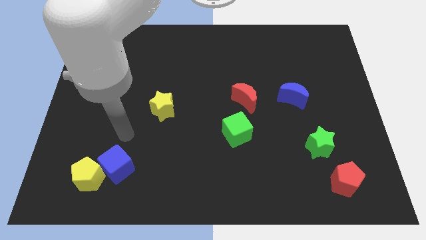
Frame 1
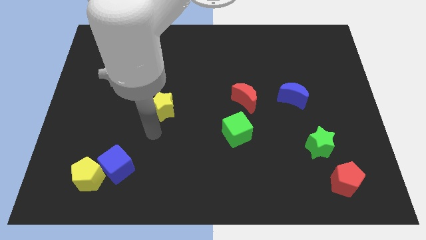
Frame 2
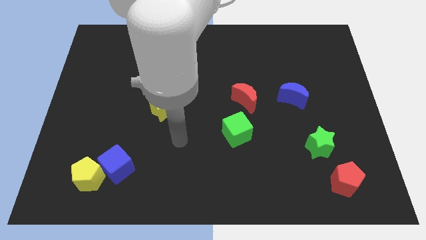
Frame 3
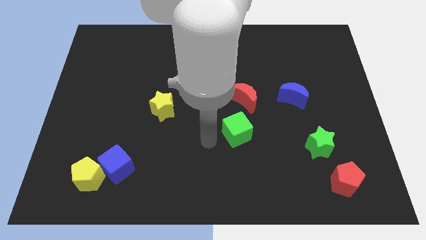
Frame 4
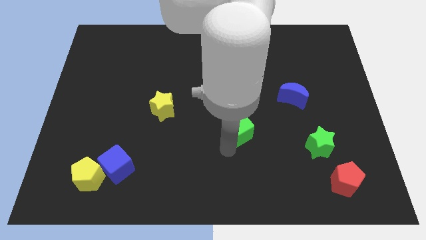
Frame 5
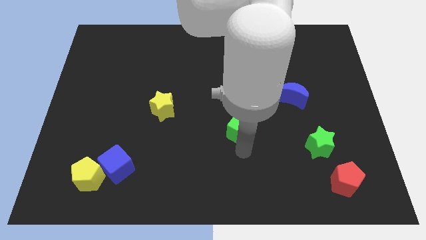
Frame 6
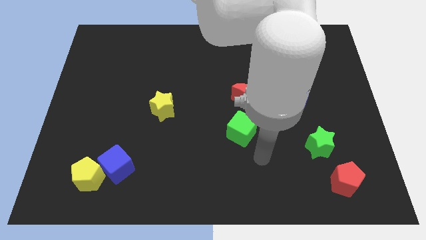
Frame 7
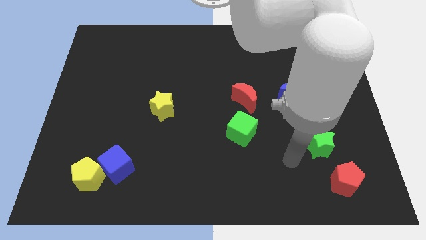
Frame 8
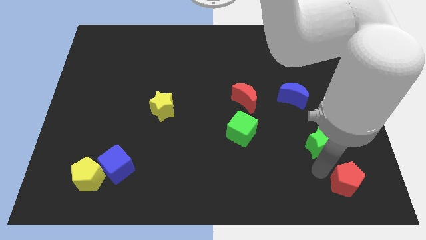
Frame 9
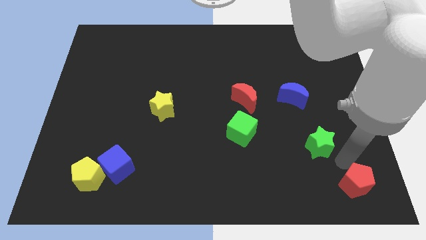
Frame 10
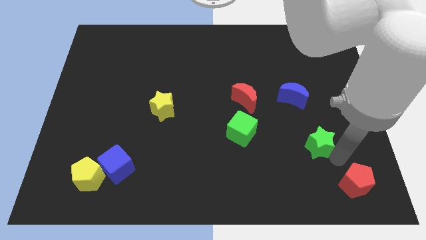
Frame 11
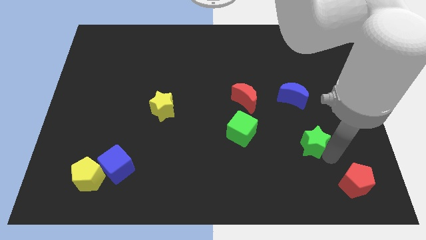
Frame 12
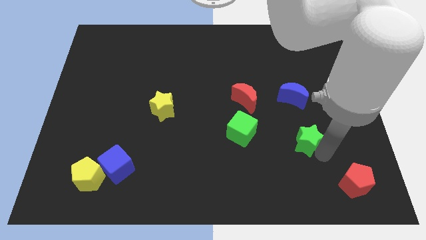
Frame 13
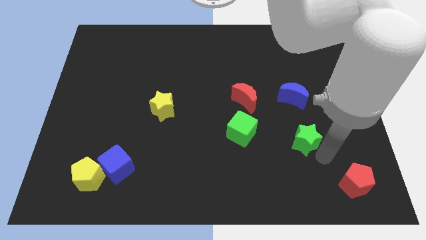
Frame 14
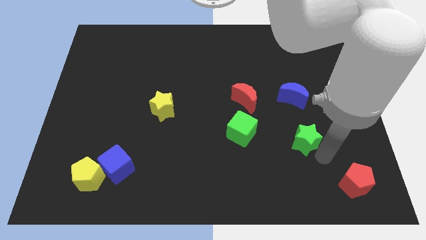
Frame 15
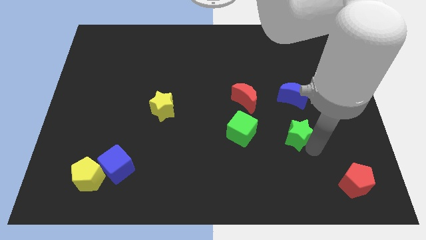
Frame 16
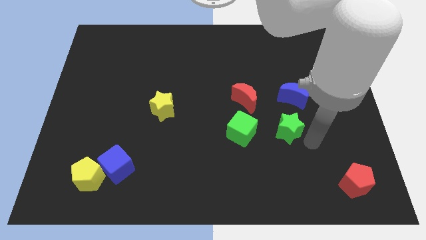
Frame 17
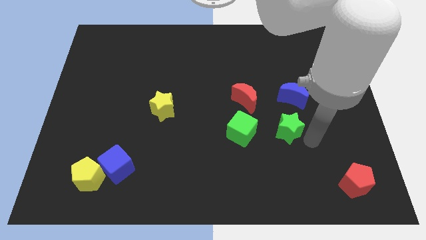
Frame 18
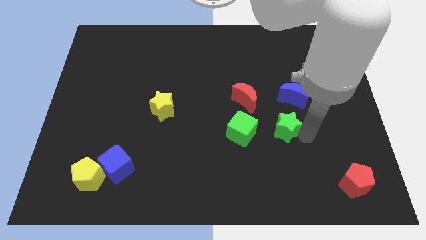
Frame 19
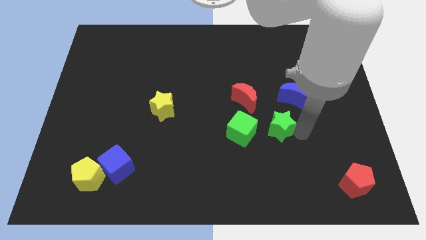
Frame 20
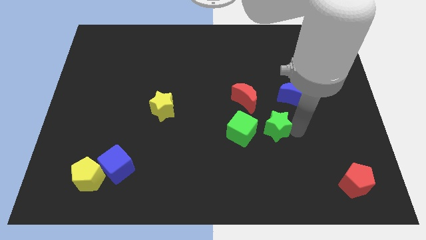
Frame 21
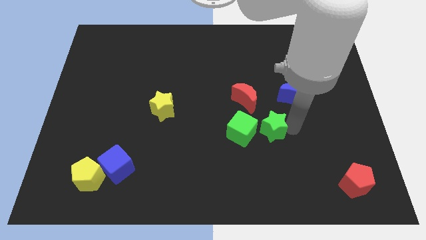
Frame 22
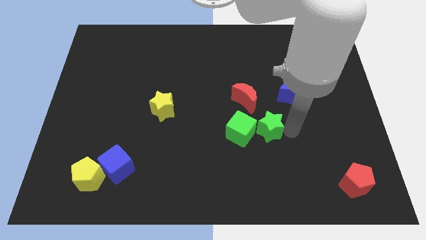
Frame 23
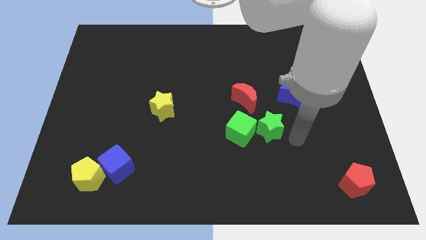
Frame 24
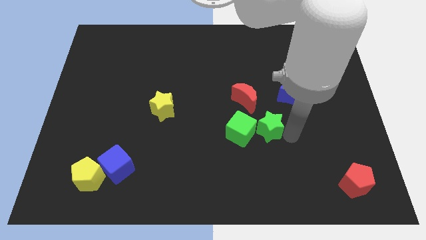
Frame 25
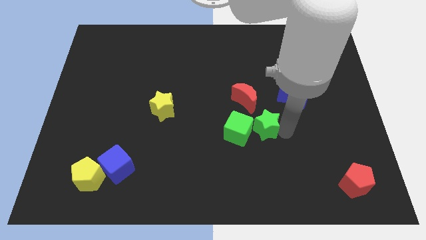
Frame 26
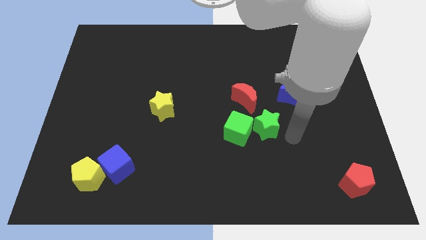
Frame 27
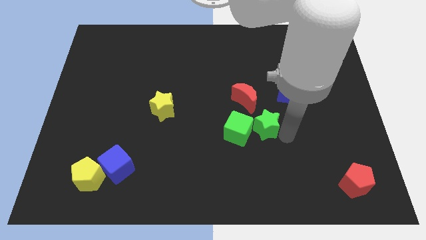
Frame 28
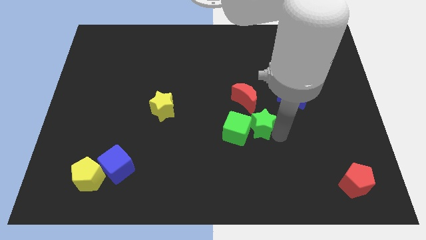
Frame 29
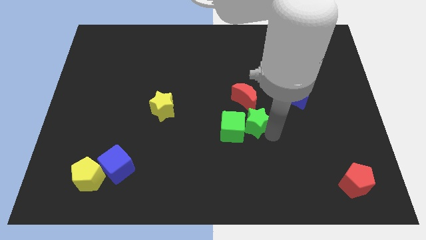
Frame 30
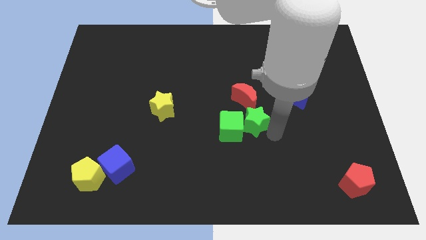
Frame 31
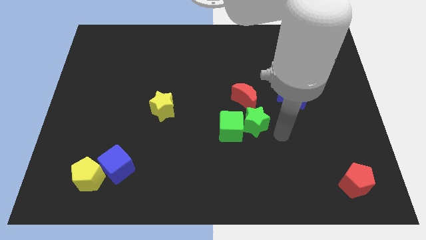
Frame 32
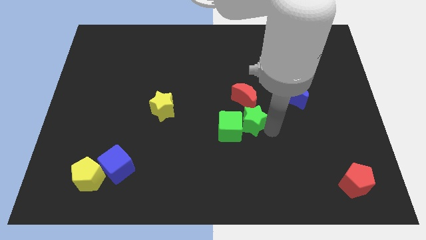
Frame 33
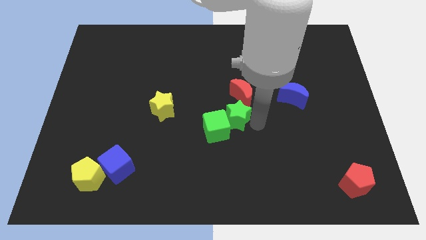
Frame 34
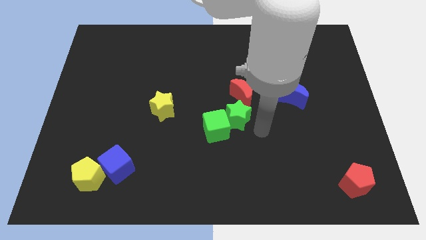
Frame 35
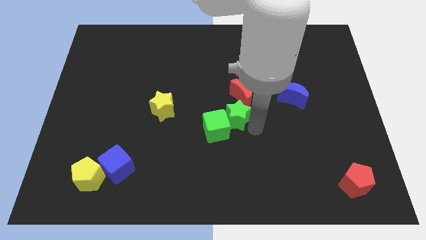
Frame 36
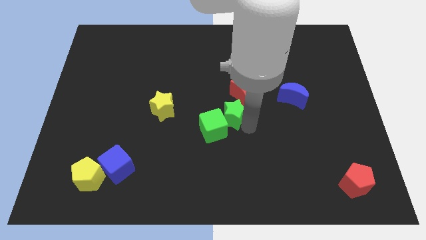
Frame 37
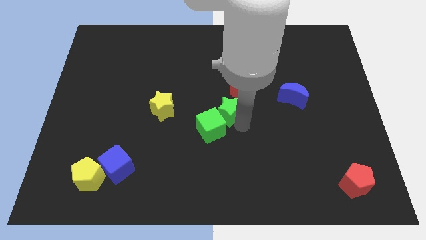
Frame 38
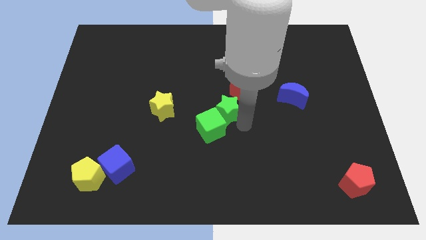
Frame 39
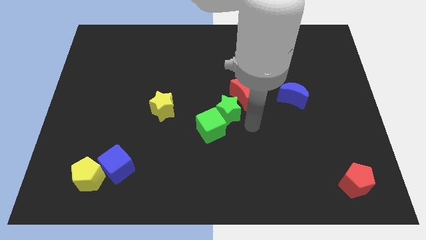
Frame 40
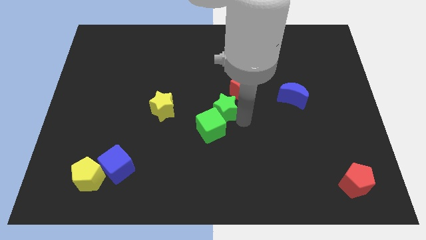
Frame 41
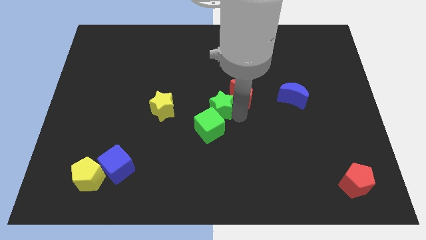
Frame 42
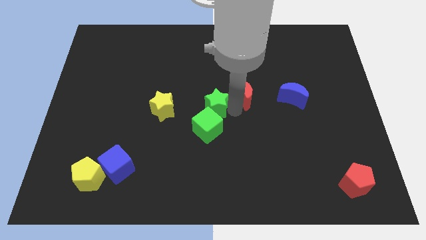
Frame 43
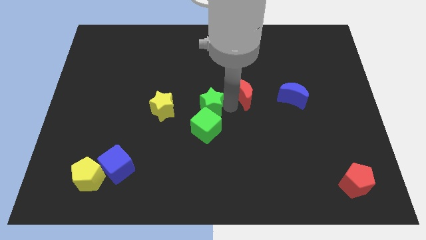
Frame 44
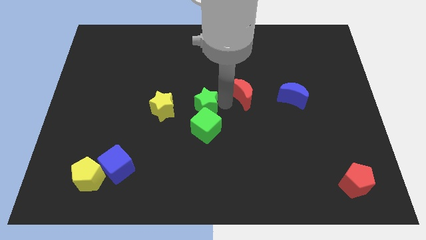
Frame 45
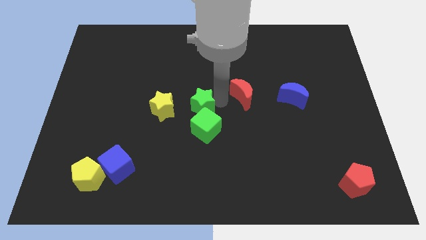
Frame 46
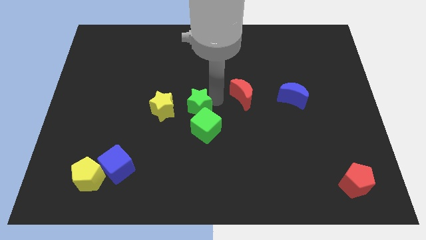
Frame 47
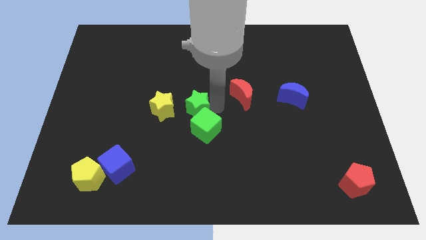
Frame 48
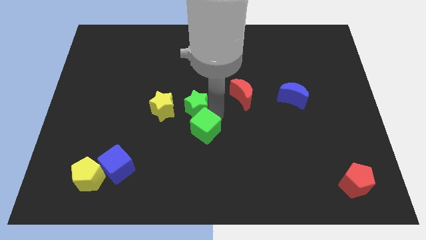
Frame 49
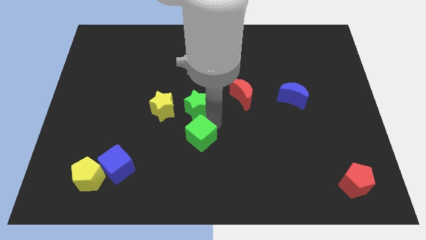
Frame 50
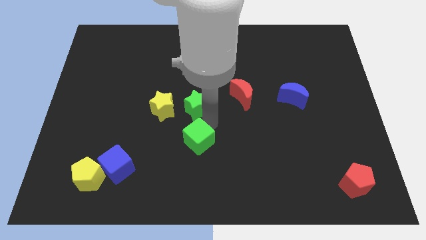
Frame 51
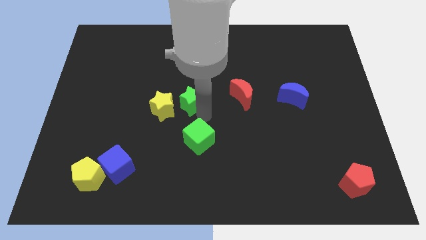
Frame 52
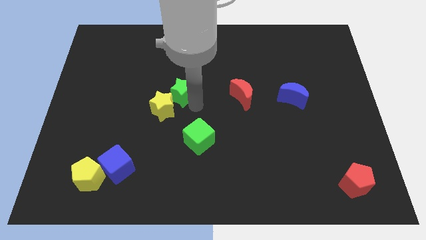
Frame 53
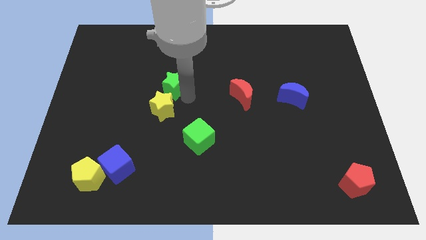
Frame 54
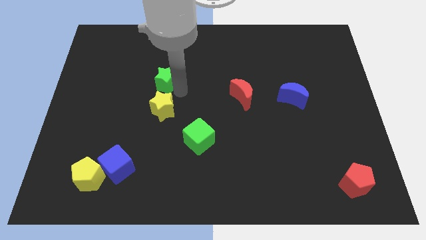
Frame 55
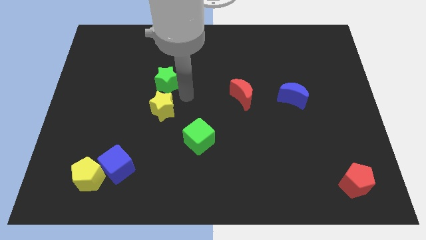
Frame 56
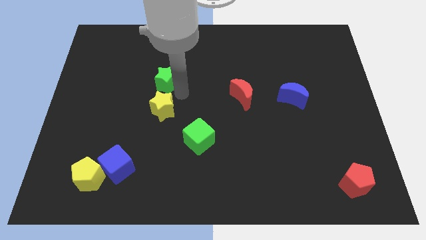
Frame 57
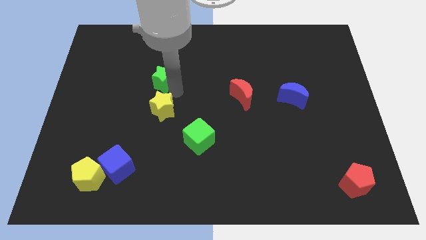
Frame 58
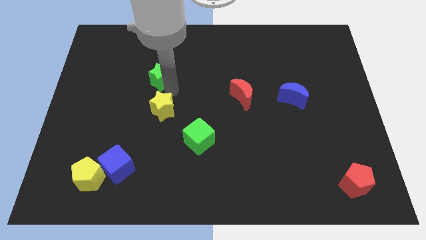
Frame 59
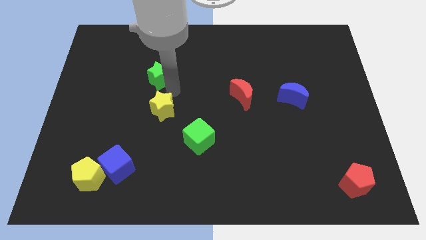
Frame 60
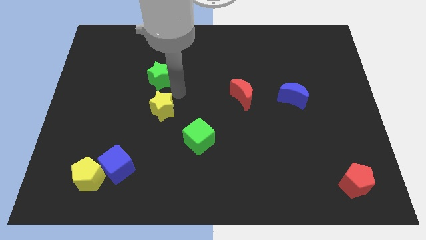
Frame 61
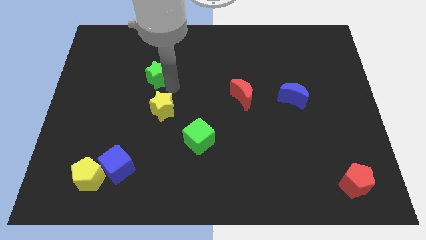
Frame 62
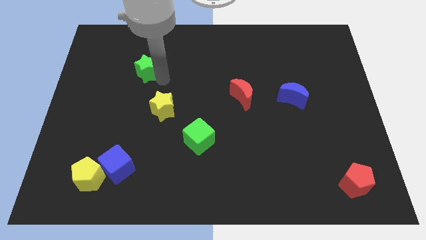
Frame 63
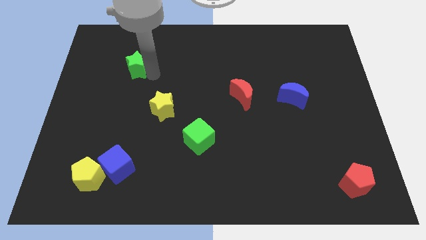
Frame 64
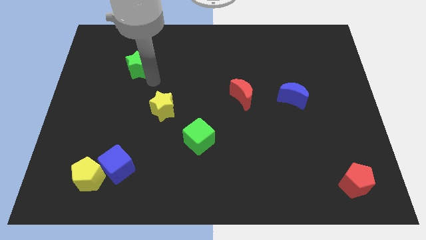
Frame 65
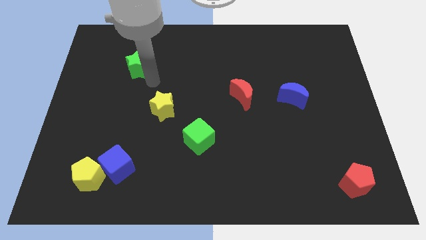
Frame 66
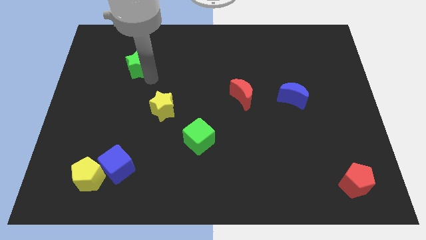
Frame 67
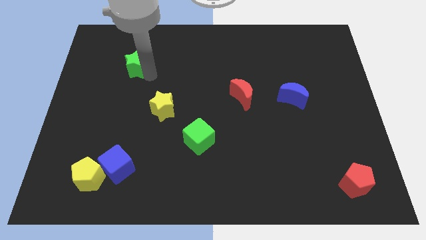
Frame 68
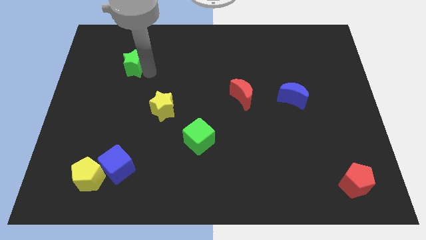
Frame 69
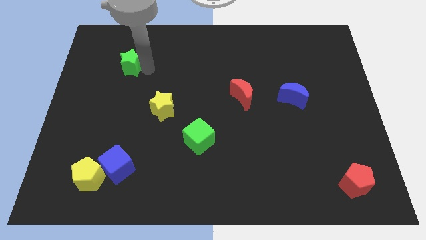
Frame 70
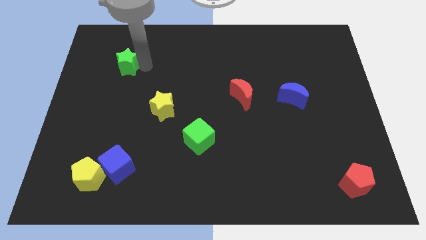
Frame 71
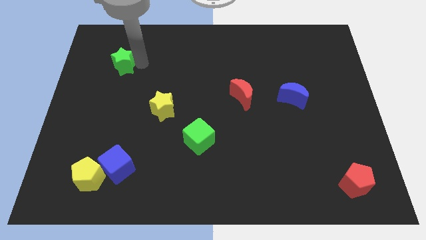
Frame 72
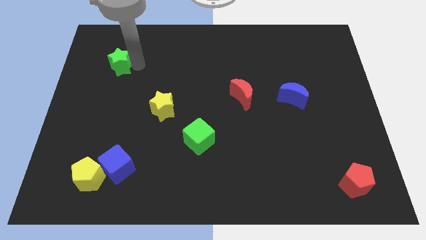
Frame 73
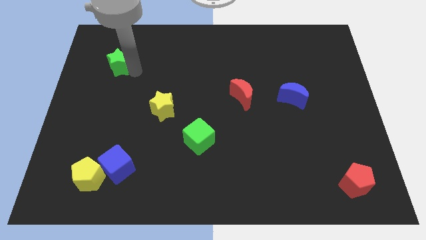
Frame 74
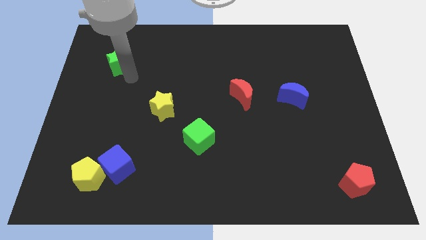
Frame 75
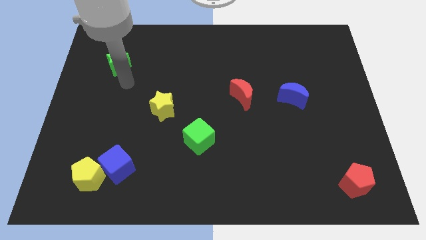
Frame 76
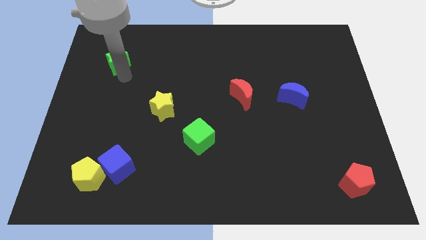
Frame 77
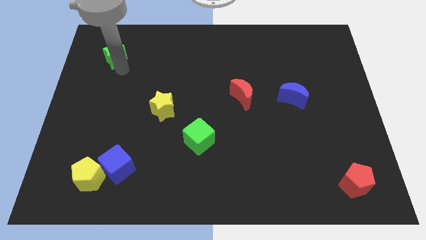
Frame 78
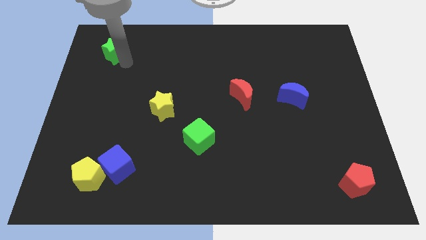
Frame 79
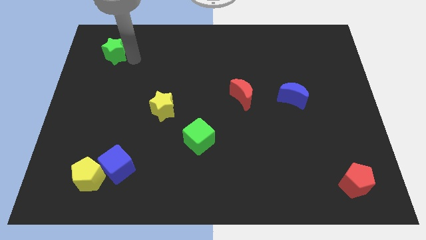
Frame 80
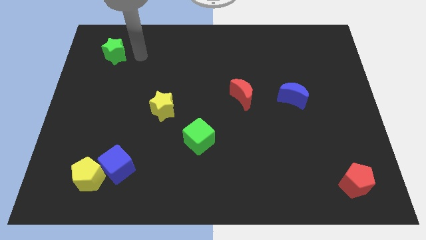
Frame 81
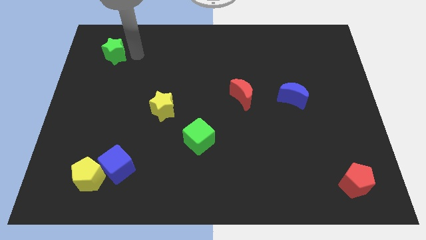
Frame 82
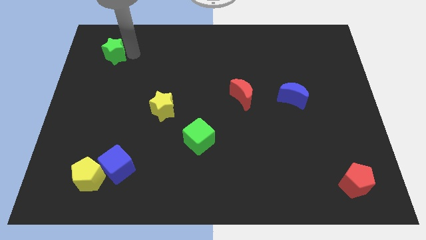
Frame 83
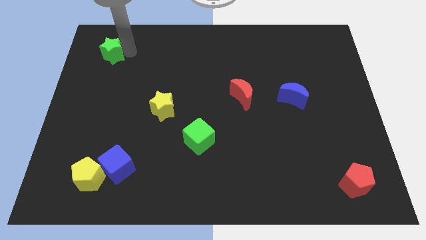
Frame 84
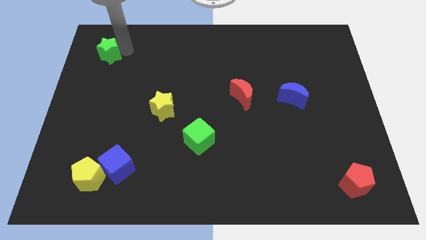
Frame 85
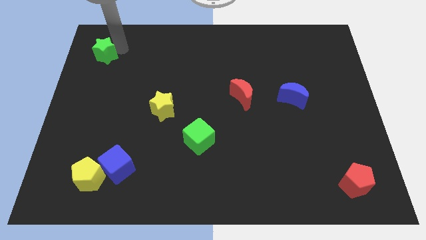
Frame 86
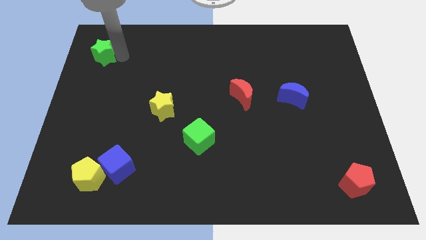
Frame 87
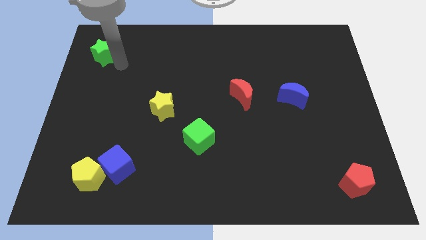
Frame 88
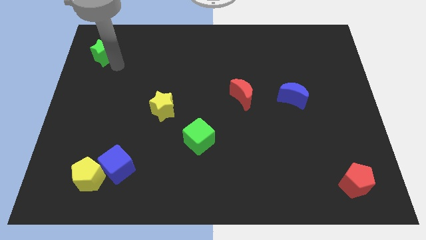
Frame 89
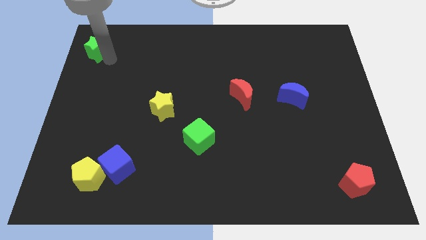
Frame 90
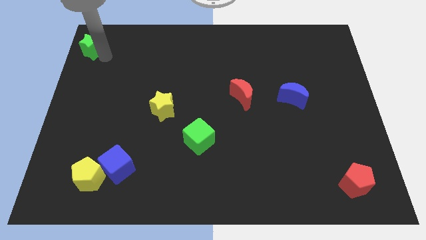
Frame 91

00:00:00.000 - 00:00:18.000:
push the green star to the top left
